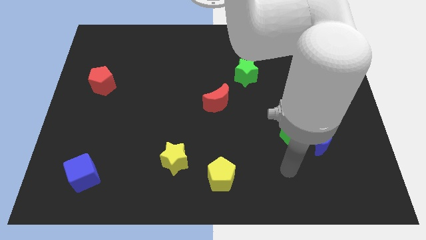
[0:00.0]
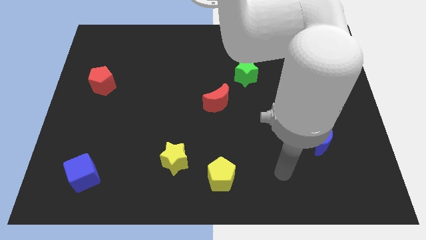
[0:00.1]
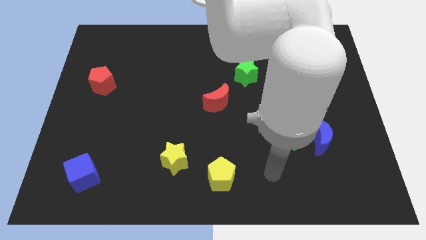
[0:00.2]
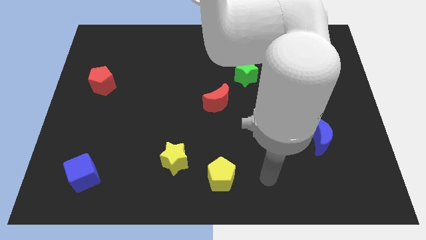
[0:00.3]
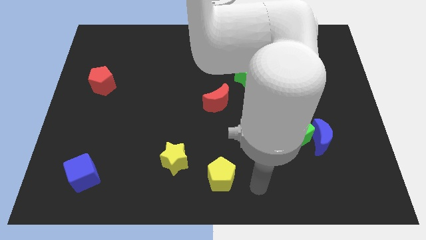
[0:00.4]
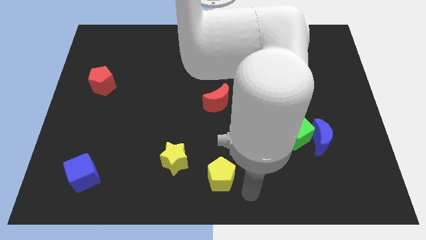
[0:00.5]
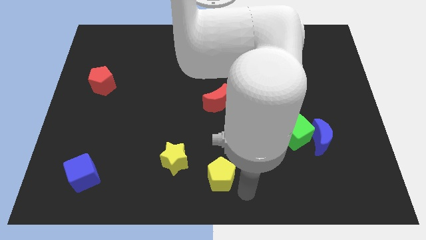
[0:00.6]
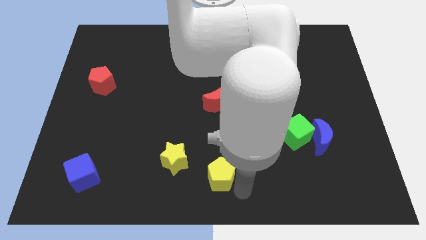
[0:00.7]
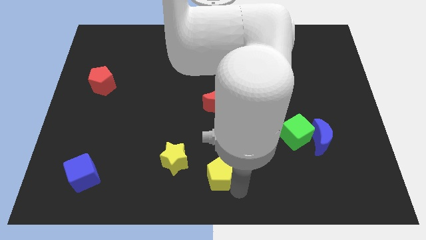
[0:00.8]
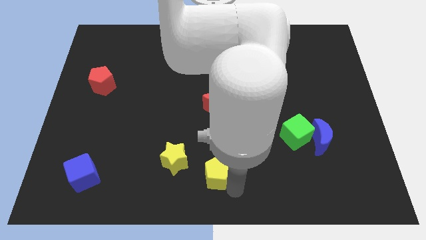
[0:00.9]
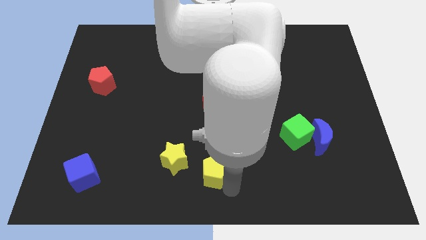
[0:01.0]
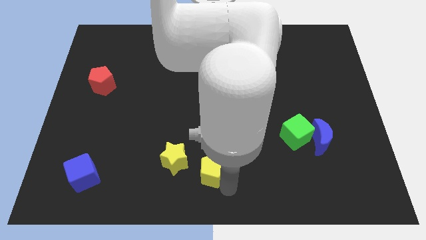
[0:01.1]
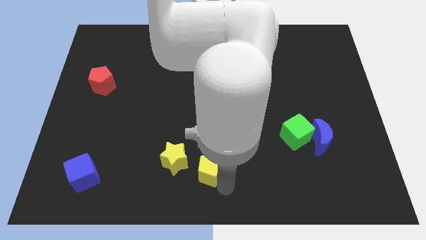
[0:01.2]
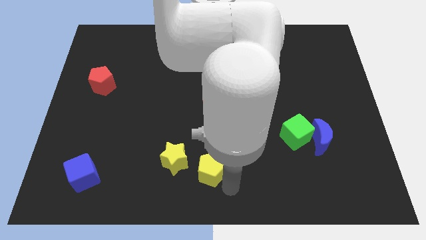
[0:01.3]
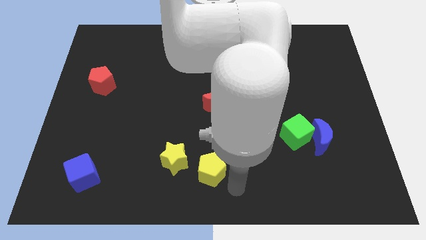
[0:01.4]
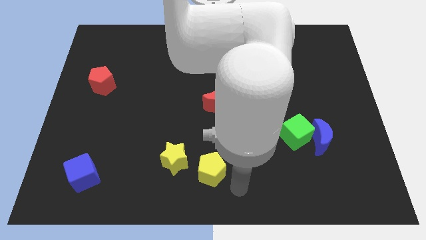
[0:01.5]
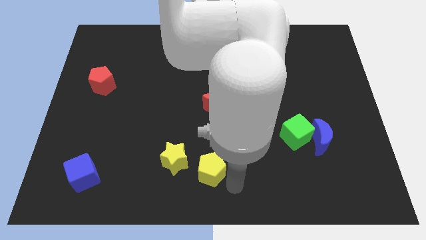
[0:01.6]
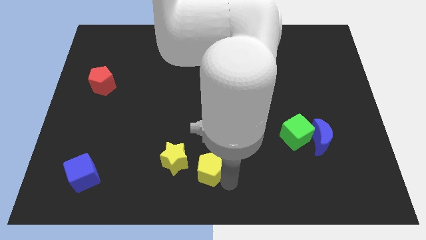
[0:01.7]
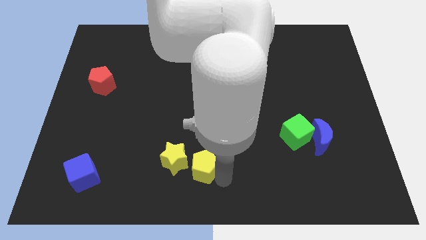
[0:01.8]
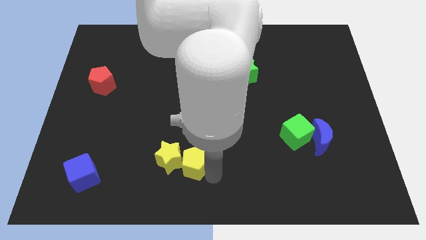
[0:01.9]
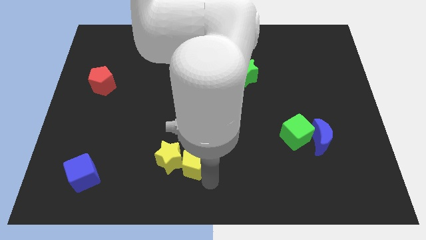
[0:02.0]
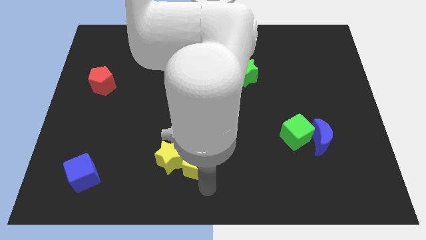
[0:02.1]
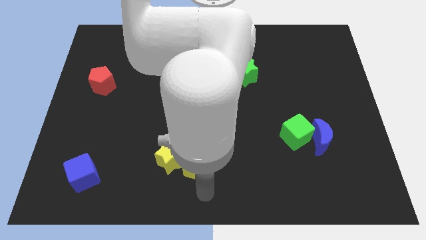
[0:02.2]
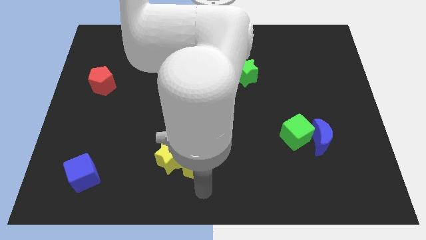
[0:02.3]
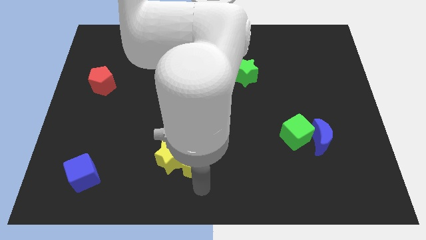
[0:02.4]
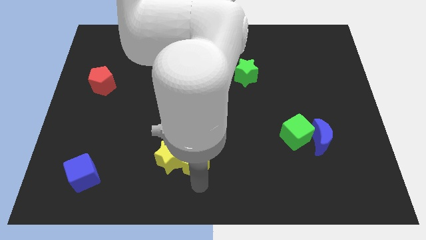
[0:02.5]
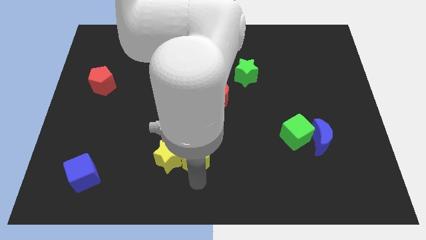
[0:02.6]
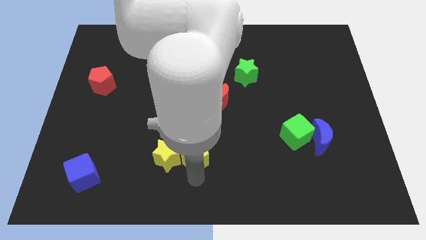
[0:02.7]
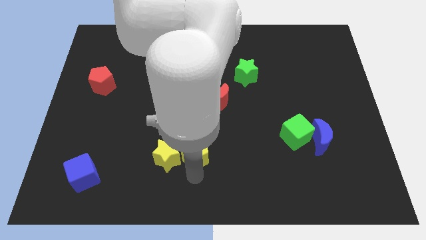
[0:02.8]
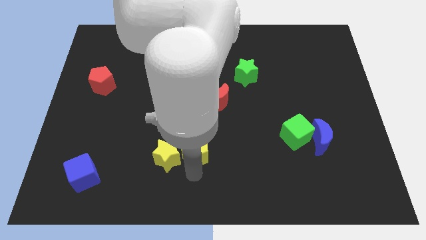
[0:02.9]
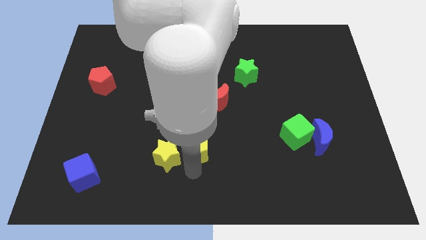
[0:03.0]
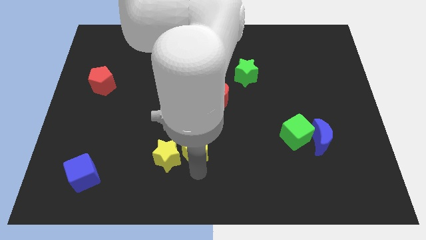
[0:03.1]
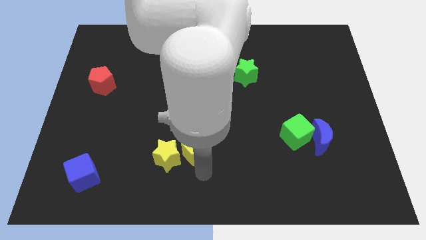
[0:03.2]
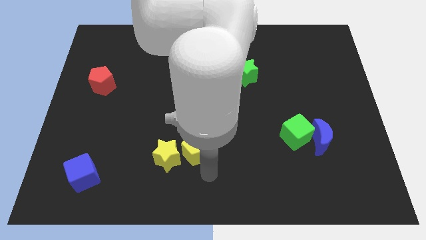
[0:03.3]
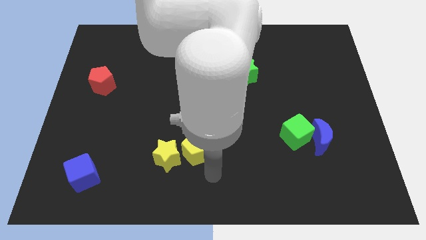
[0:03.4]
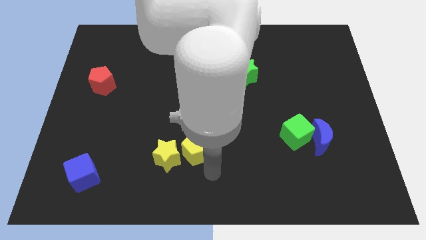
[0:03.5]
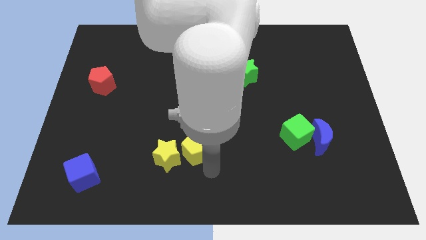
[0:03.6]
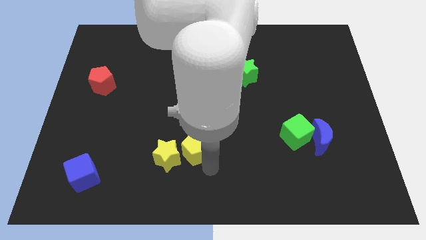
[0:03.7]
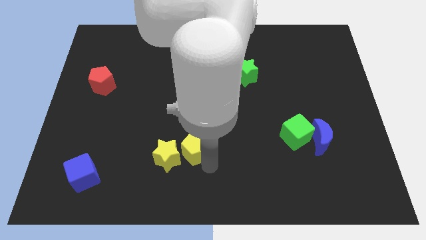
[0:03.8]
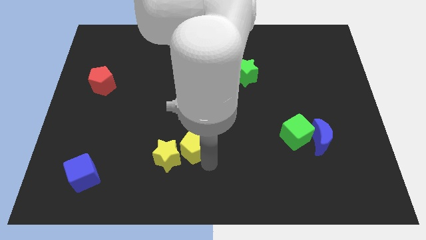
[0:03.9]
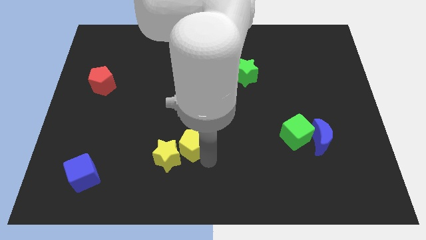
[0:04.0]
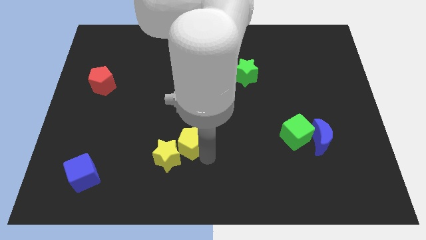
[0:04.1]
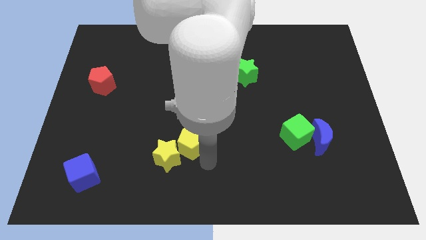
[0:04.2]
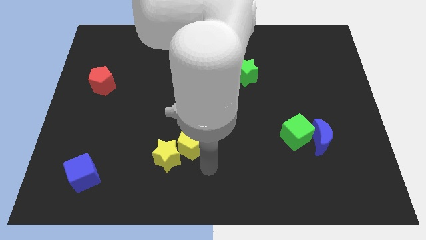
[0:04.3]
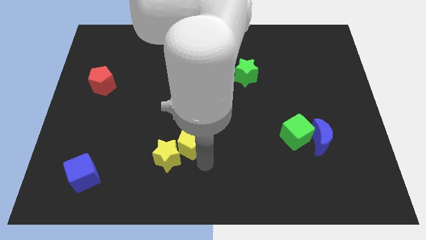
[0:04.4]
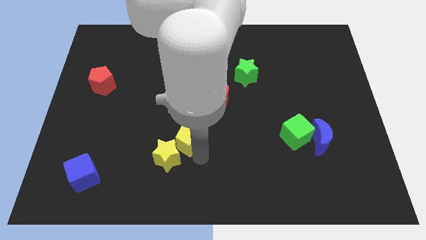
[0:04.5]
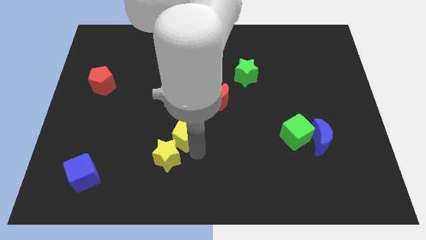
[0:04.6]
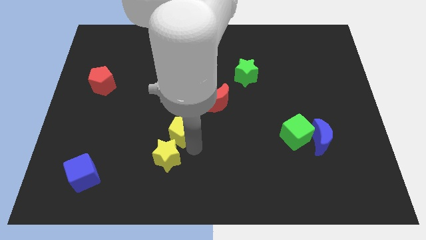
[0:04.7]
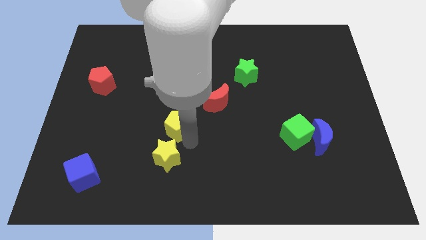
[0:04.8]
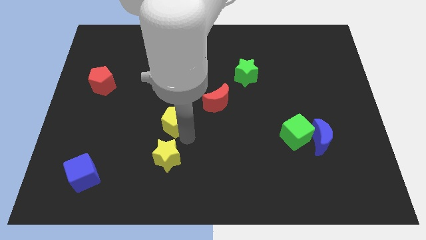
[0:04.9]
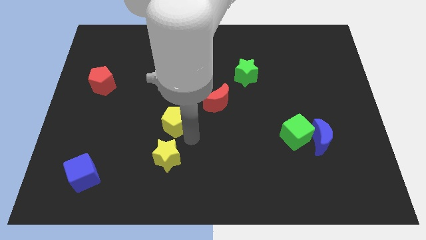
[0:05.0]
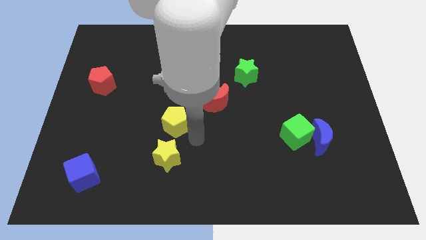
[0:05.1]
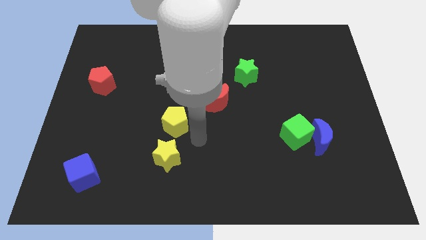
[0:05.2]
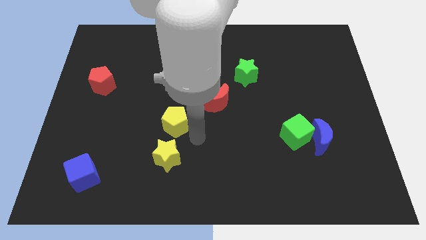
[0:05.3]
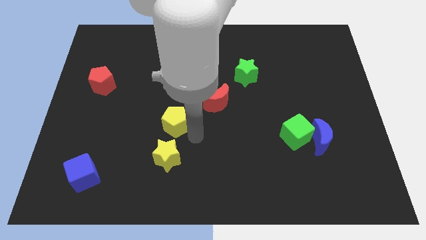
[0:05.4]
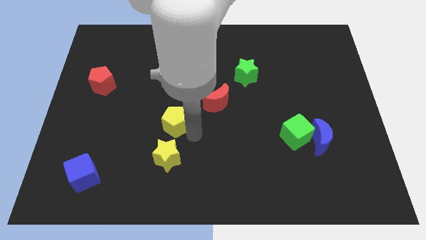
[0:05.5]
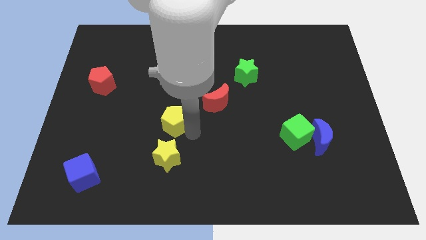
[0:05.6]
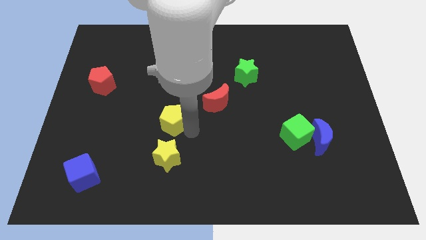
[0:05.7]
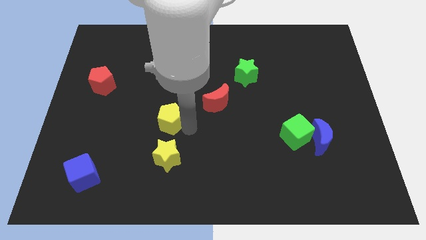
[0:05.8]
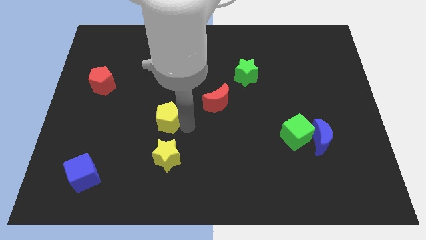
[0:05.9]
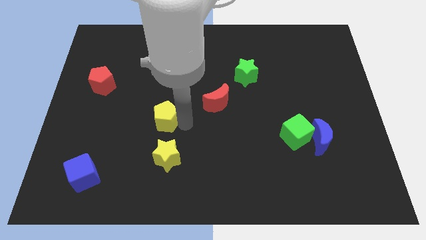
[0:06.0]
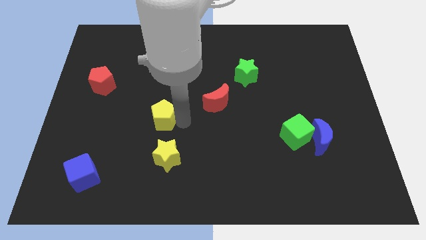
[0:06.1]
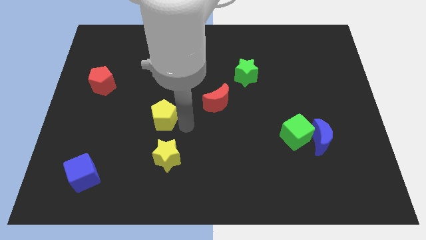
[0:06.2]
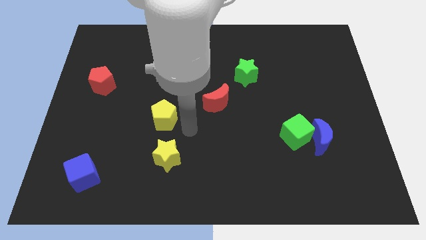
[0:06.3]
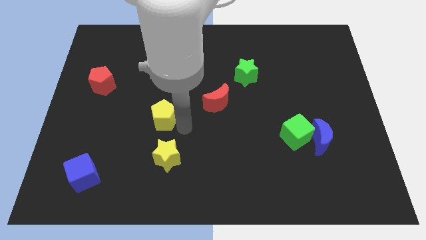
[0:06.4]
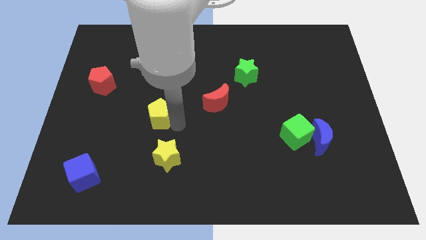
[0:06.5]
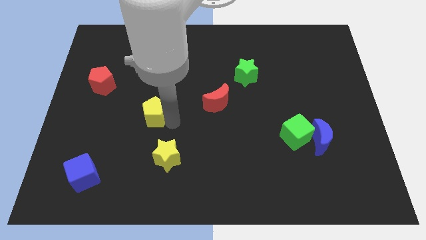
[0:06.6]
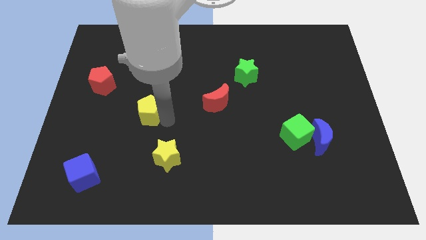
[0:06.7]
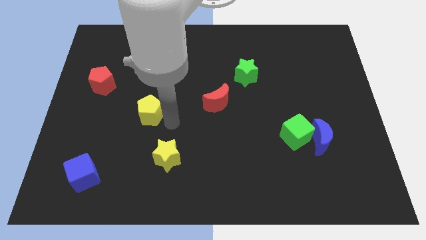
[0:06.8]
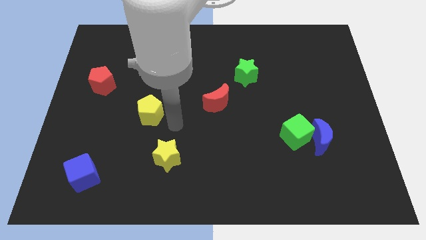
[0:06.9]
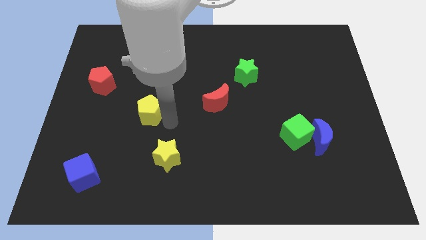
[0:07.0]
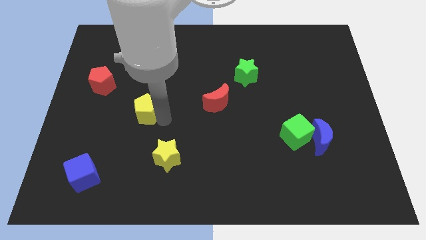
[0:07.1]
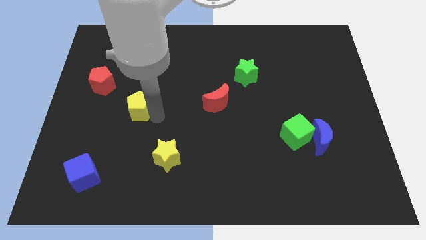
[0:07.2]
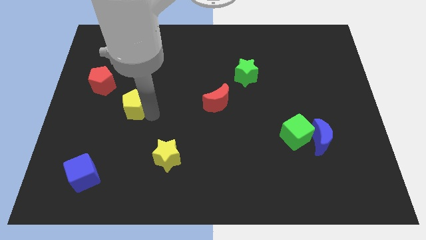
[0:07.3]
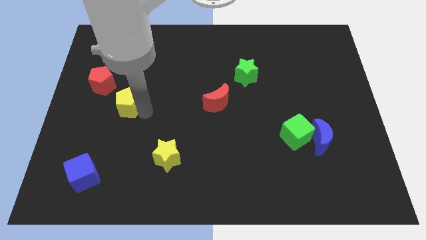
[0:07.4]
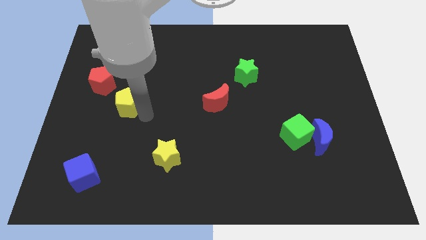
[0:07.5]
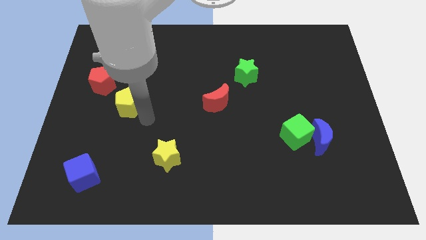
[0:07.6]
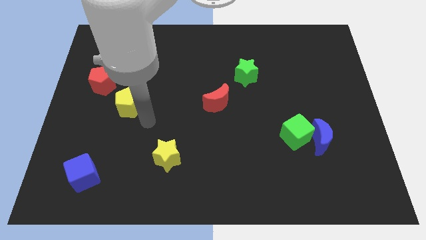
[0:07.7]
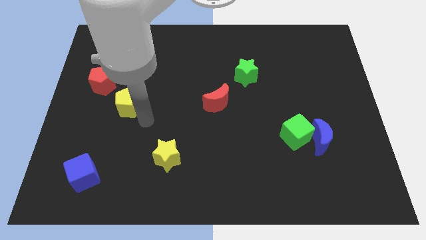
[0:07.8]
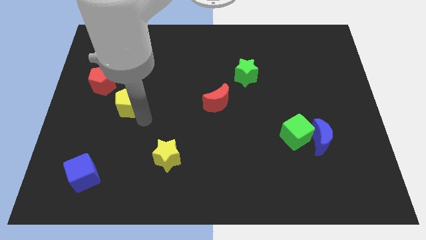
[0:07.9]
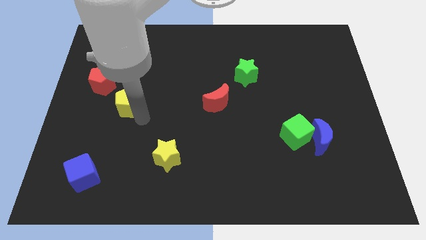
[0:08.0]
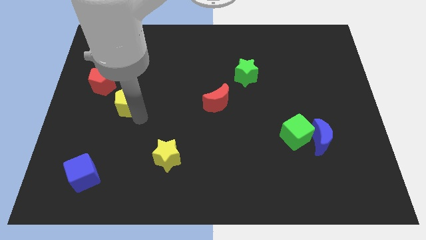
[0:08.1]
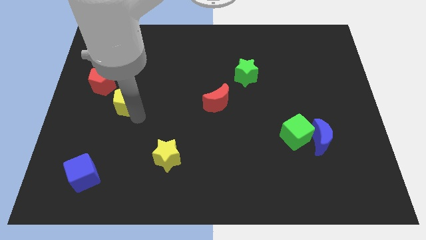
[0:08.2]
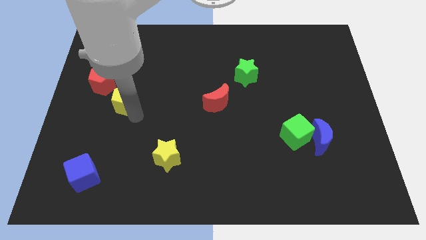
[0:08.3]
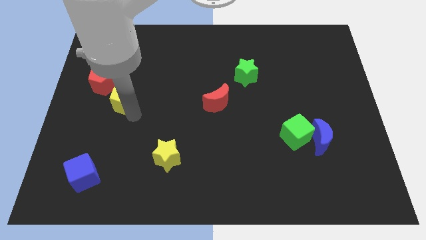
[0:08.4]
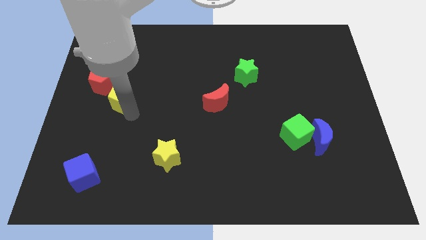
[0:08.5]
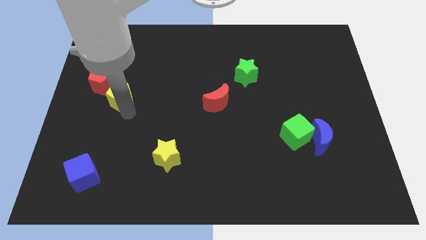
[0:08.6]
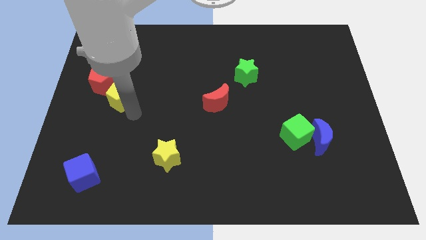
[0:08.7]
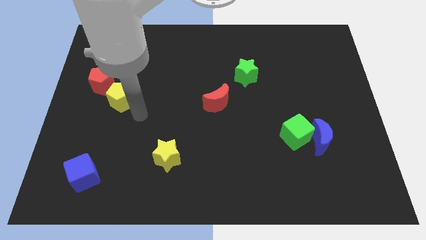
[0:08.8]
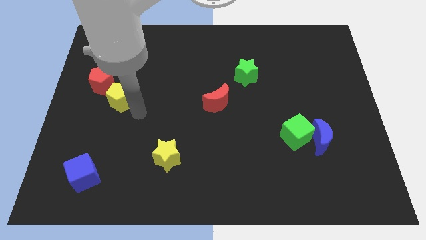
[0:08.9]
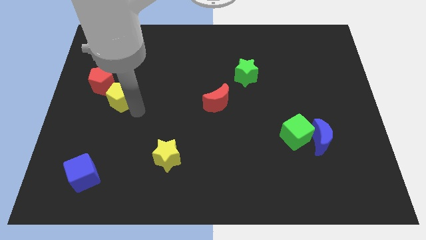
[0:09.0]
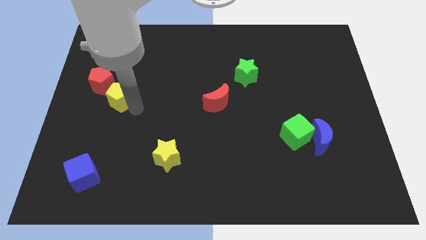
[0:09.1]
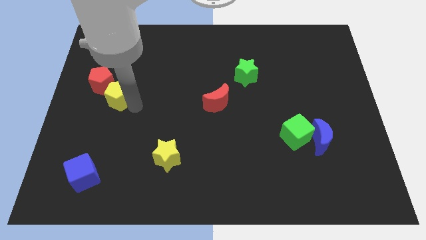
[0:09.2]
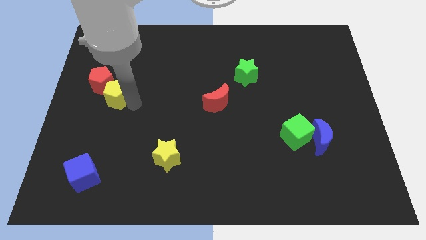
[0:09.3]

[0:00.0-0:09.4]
move the yellow pentagon next to the red pentagon
